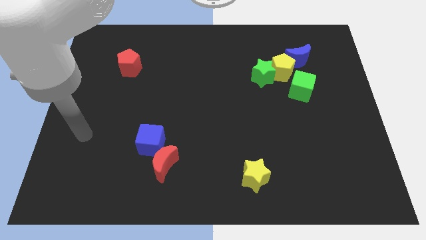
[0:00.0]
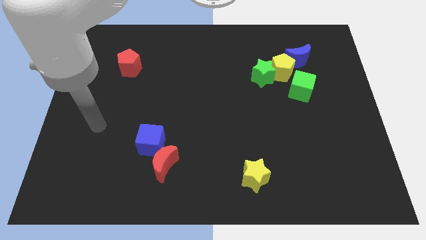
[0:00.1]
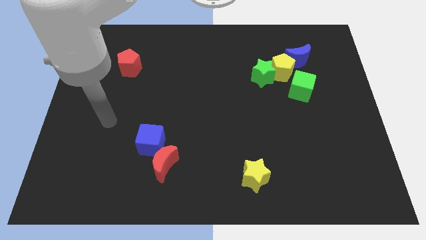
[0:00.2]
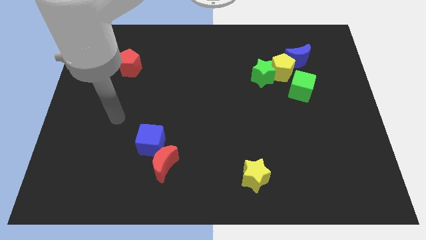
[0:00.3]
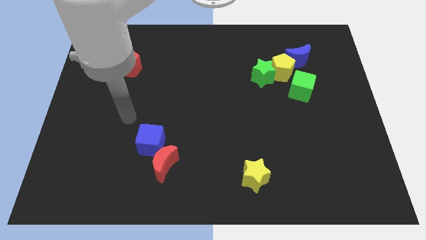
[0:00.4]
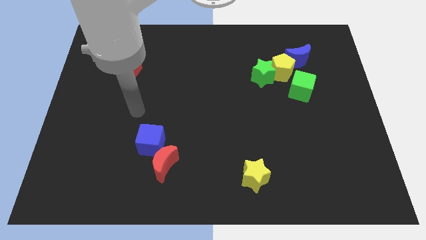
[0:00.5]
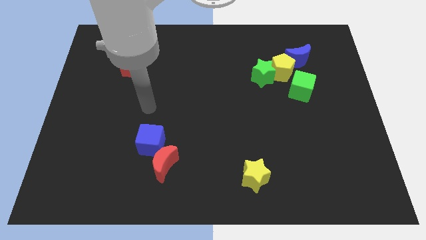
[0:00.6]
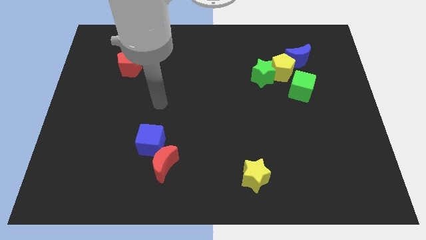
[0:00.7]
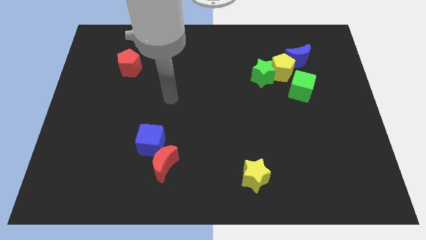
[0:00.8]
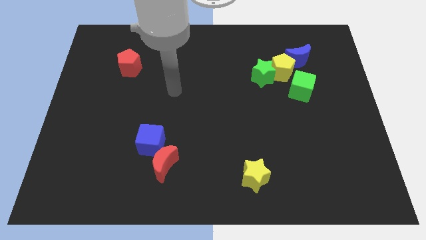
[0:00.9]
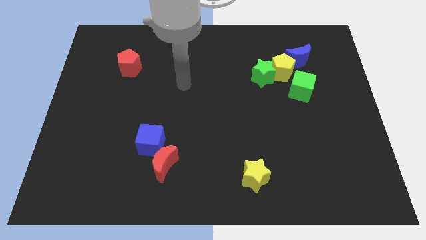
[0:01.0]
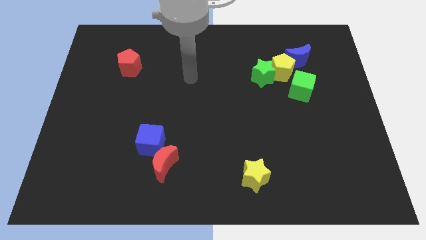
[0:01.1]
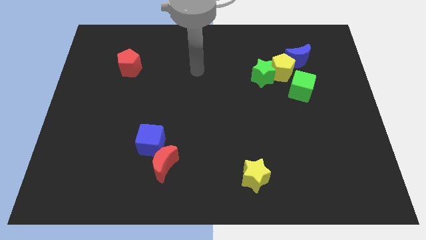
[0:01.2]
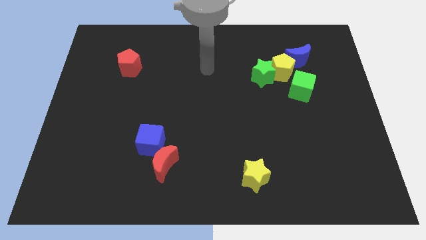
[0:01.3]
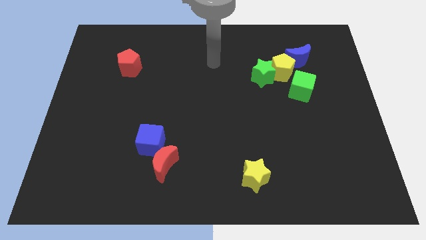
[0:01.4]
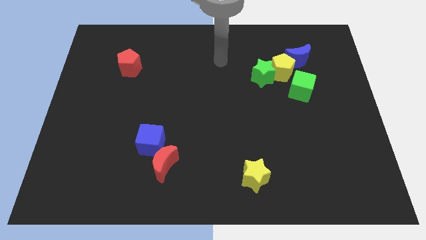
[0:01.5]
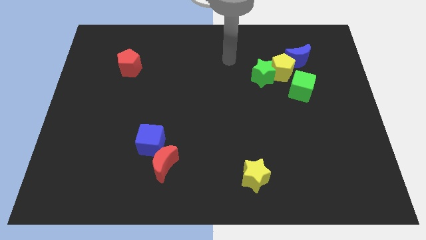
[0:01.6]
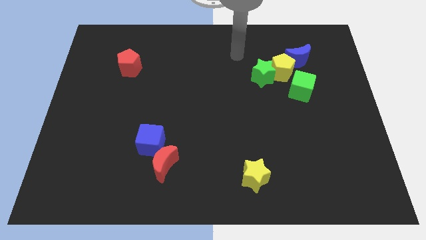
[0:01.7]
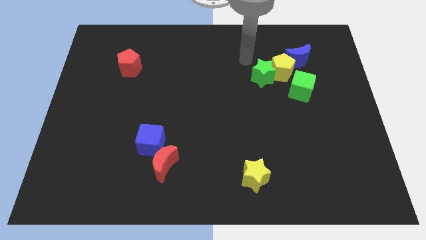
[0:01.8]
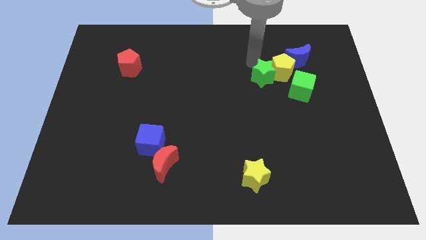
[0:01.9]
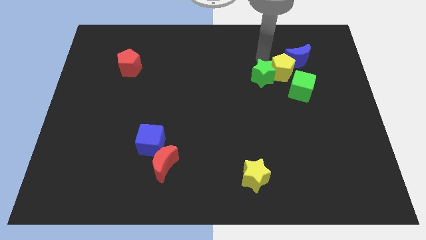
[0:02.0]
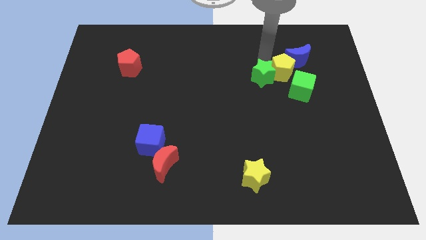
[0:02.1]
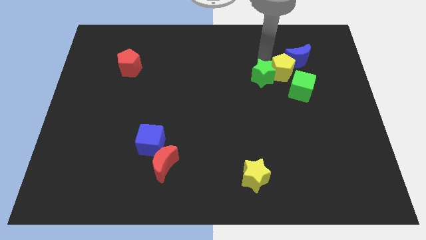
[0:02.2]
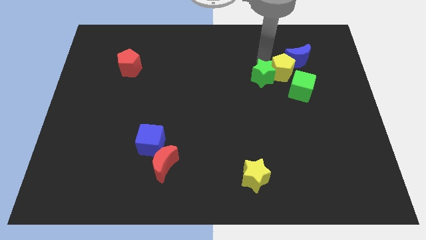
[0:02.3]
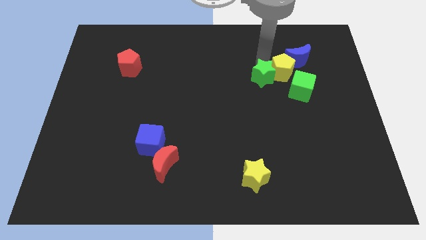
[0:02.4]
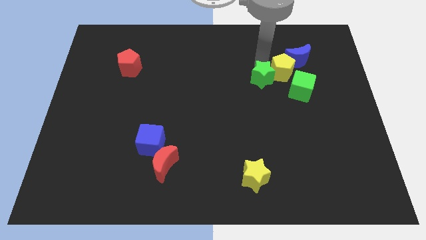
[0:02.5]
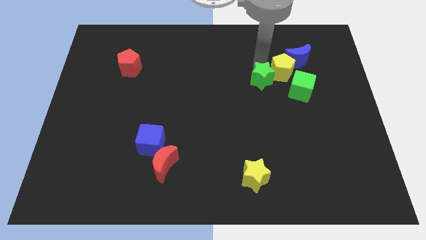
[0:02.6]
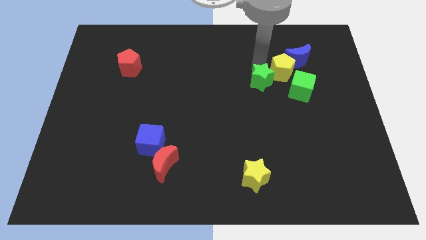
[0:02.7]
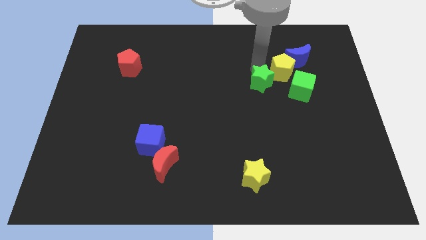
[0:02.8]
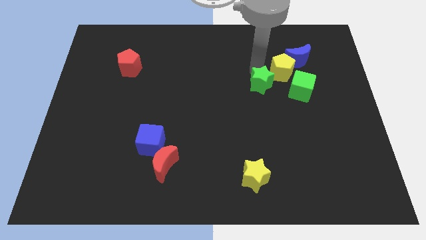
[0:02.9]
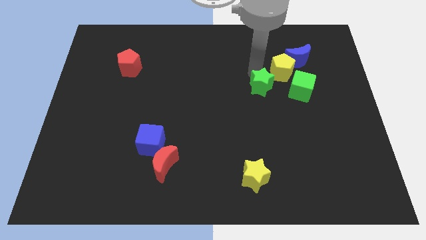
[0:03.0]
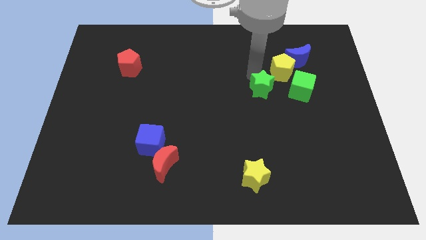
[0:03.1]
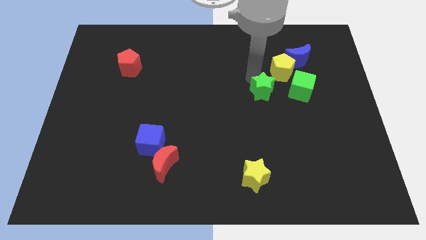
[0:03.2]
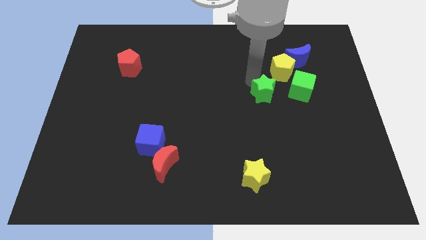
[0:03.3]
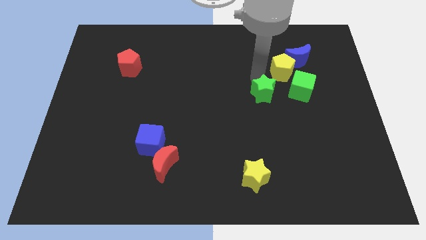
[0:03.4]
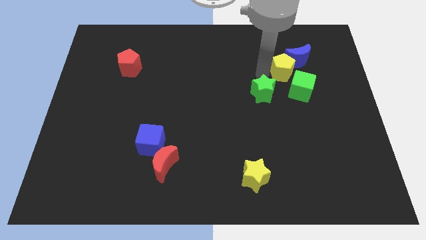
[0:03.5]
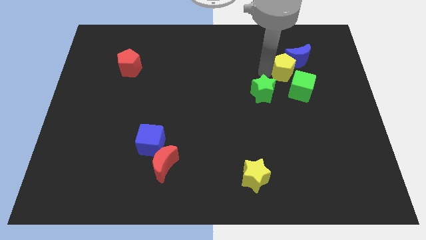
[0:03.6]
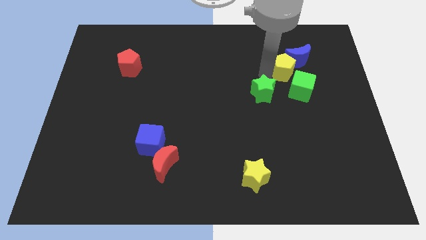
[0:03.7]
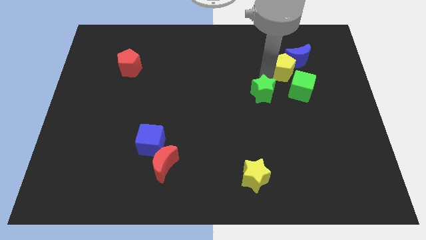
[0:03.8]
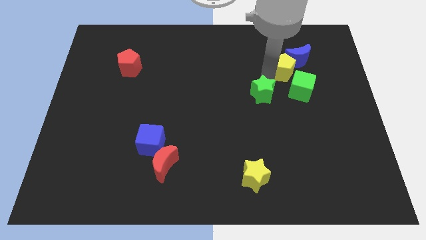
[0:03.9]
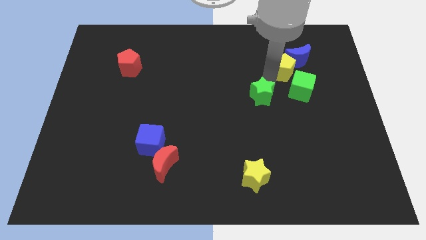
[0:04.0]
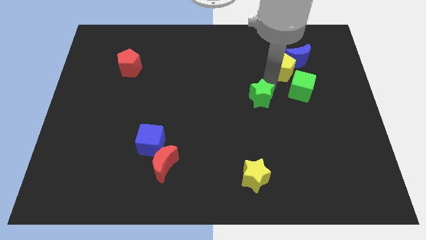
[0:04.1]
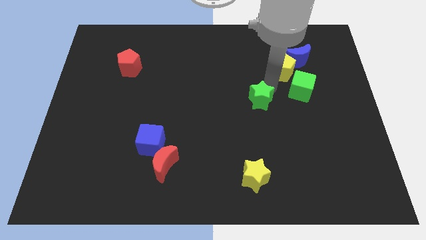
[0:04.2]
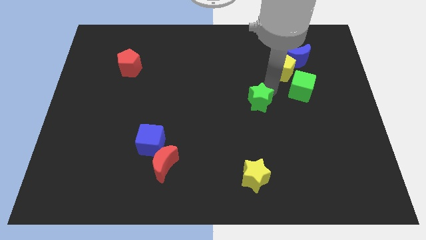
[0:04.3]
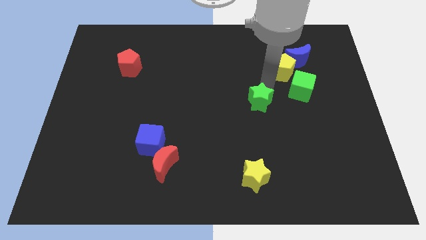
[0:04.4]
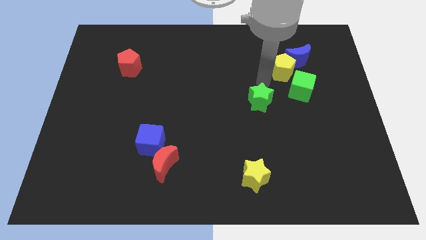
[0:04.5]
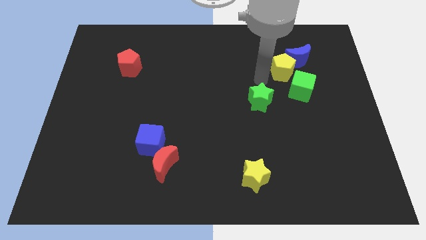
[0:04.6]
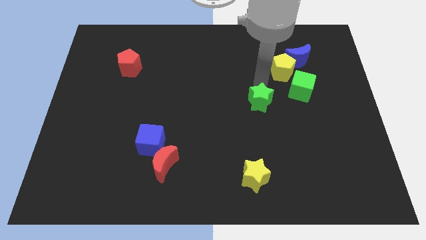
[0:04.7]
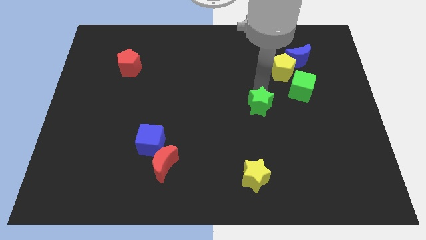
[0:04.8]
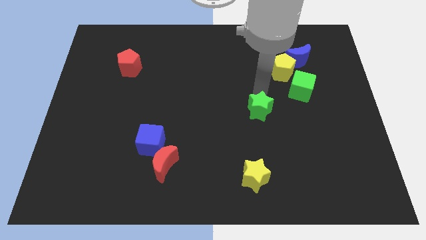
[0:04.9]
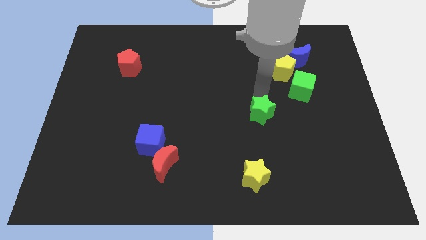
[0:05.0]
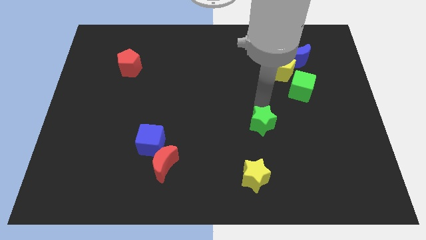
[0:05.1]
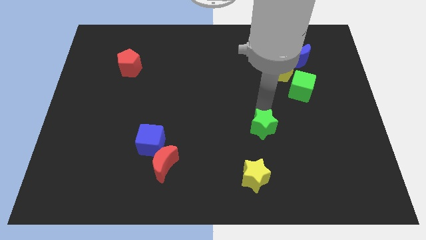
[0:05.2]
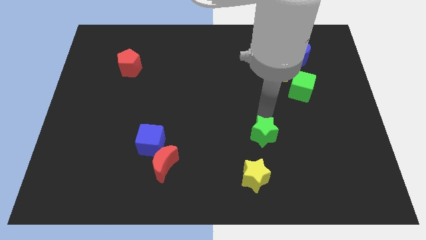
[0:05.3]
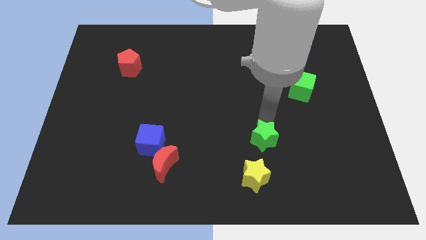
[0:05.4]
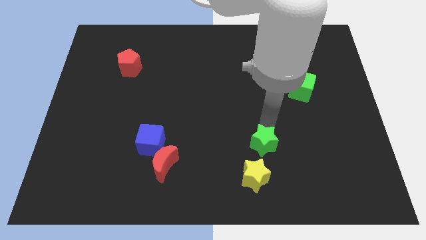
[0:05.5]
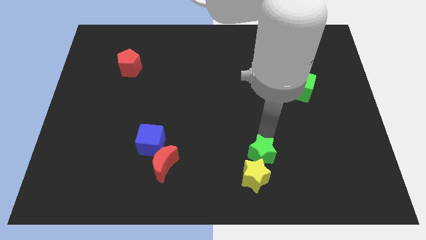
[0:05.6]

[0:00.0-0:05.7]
move the green star next to the yellow star

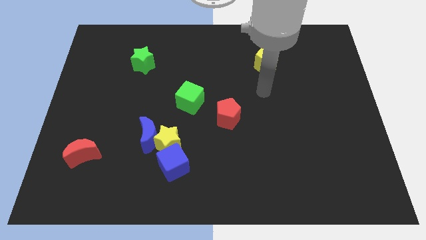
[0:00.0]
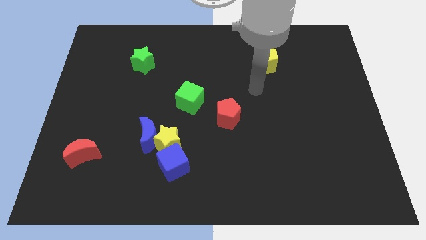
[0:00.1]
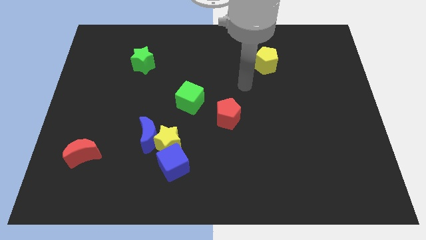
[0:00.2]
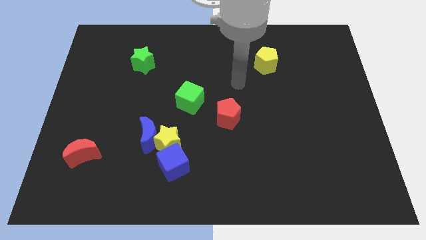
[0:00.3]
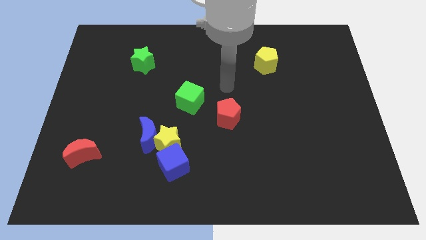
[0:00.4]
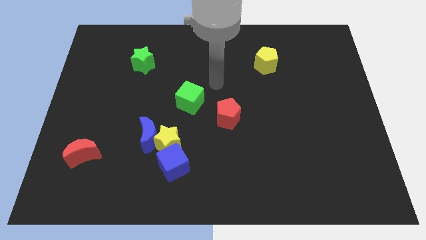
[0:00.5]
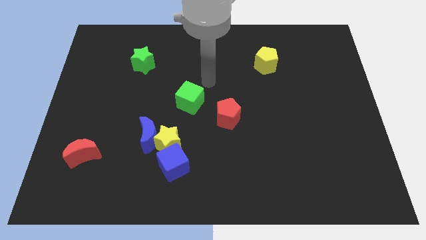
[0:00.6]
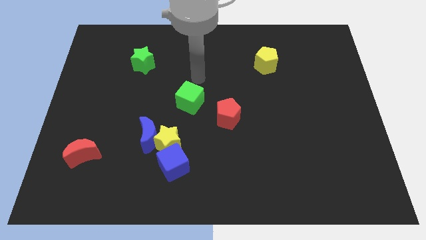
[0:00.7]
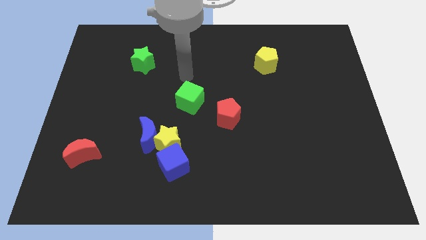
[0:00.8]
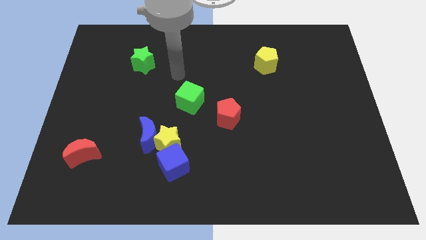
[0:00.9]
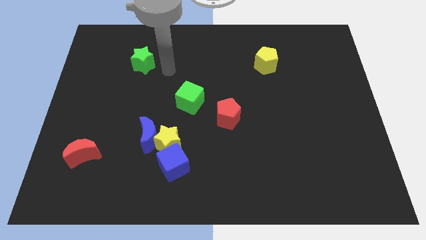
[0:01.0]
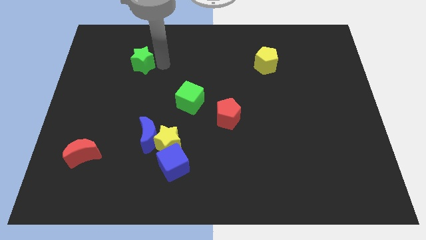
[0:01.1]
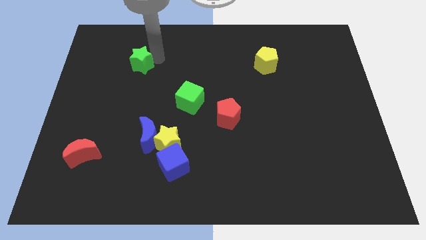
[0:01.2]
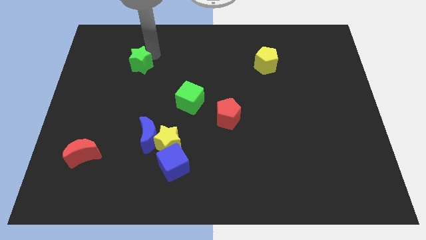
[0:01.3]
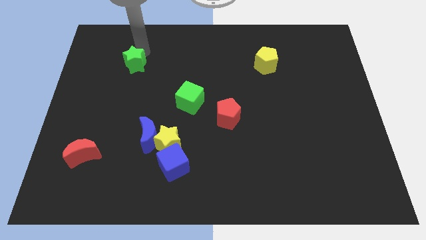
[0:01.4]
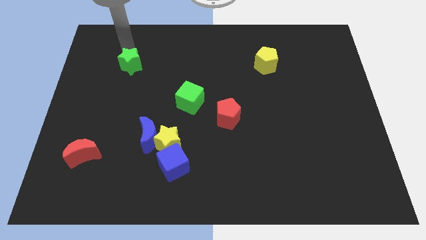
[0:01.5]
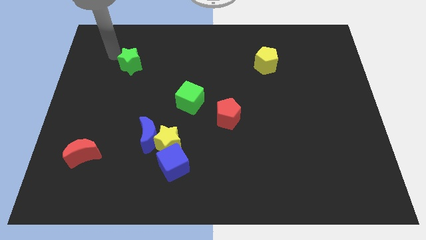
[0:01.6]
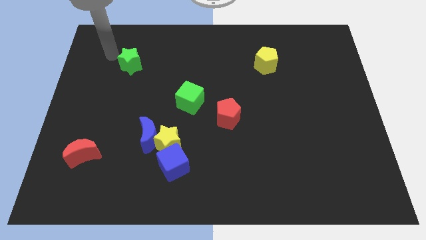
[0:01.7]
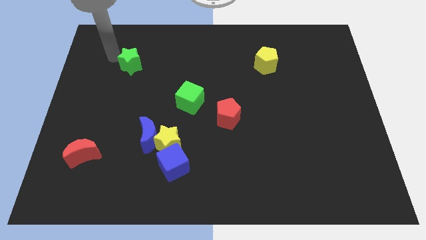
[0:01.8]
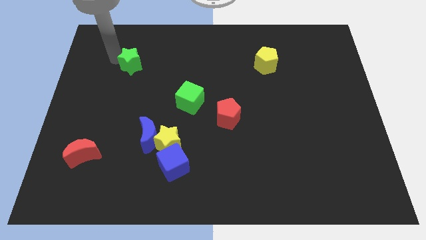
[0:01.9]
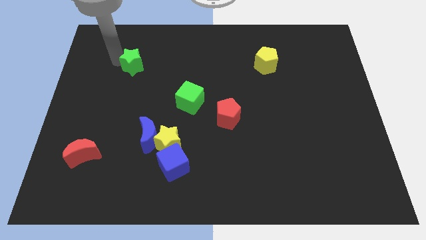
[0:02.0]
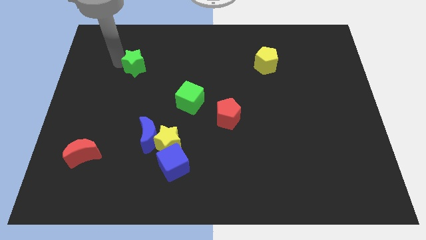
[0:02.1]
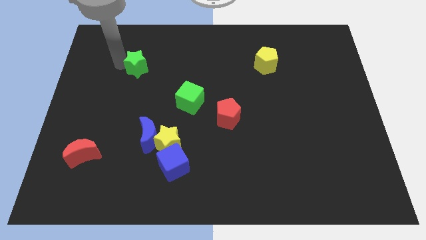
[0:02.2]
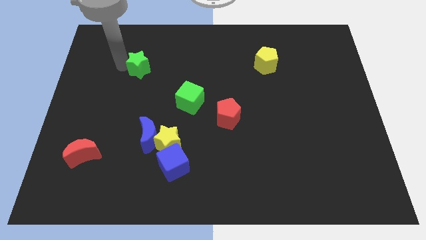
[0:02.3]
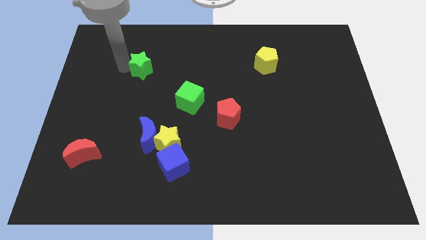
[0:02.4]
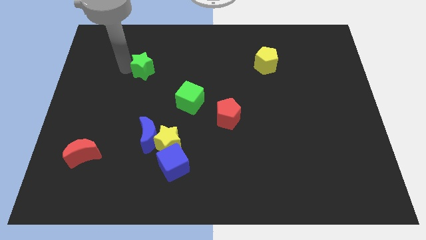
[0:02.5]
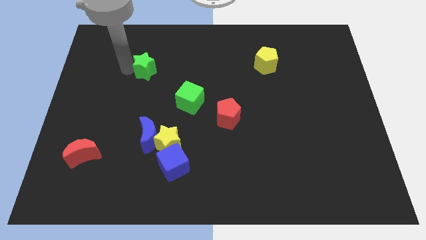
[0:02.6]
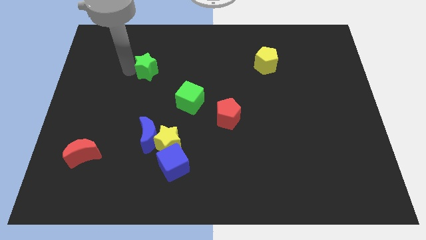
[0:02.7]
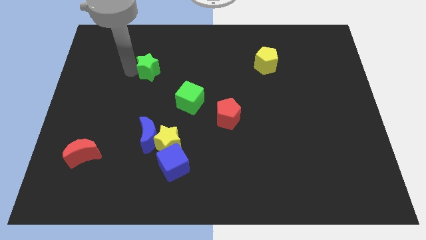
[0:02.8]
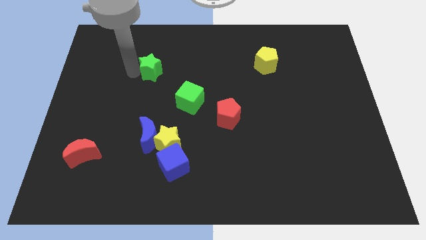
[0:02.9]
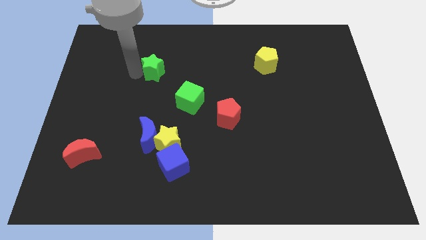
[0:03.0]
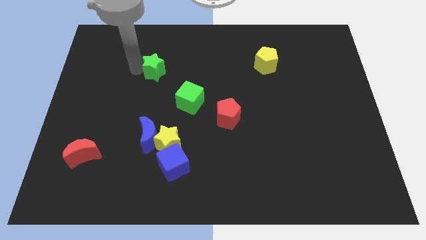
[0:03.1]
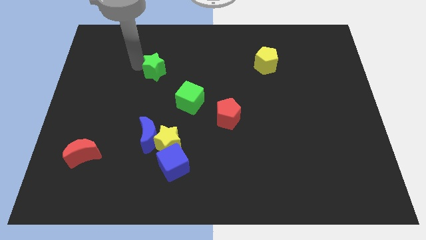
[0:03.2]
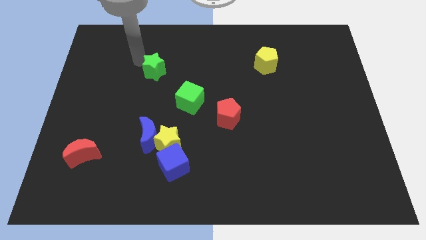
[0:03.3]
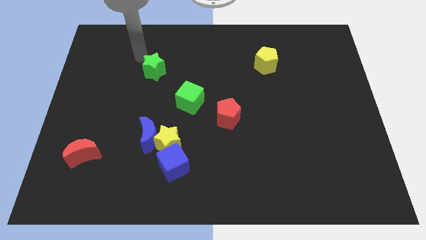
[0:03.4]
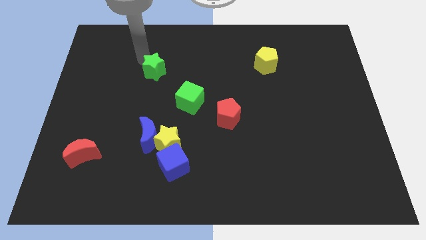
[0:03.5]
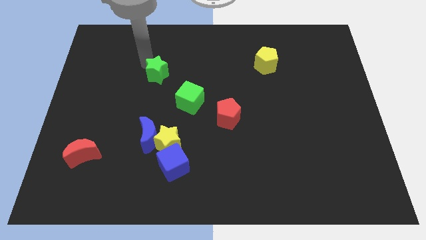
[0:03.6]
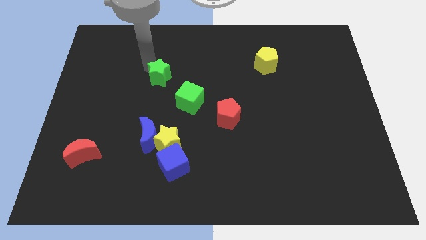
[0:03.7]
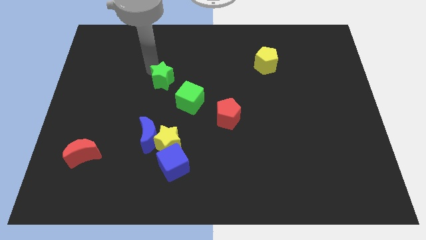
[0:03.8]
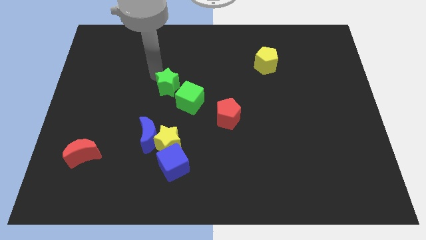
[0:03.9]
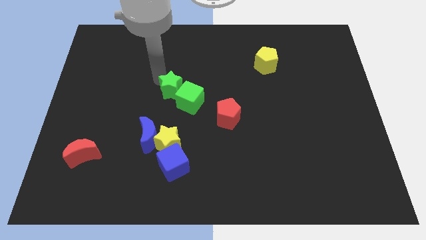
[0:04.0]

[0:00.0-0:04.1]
push the green star towards the green cube
